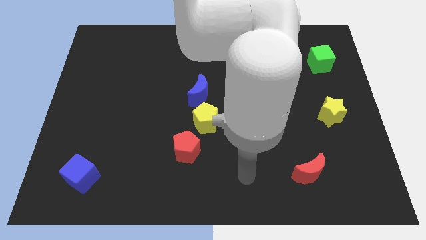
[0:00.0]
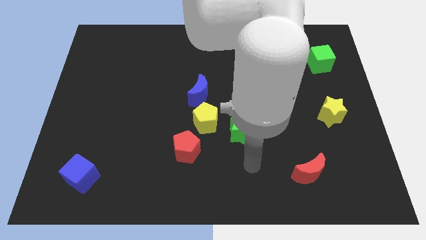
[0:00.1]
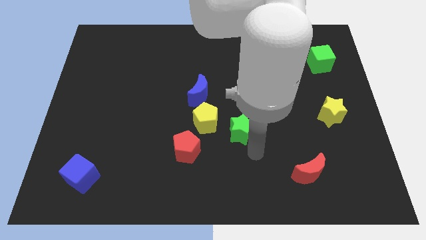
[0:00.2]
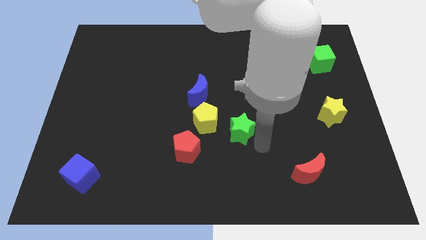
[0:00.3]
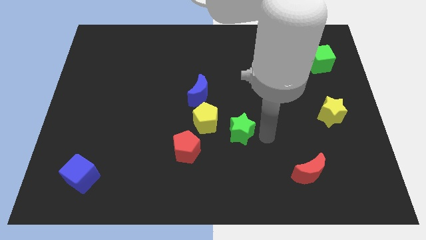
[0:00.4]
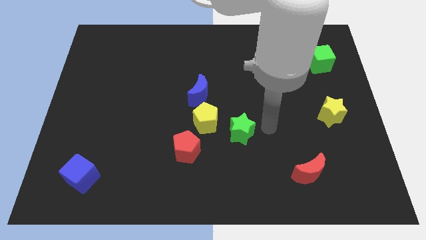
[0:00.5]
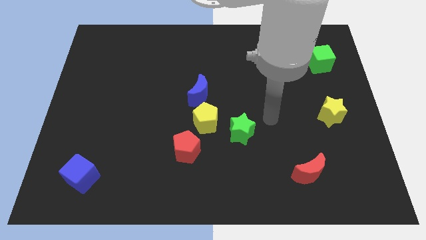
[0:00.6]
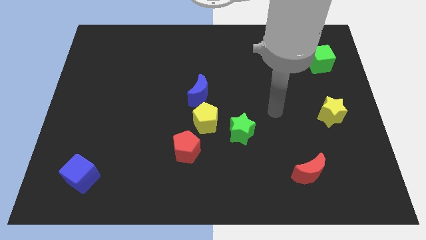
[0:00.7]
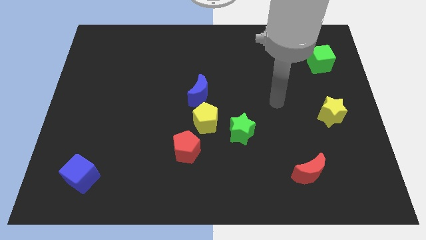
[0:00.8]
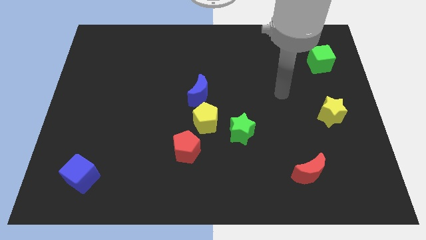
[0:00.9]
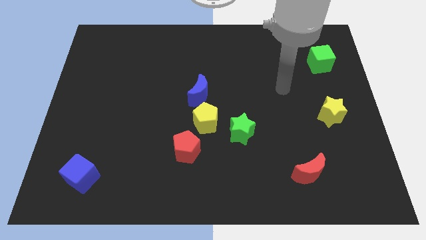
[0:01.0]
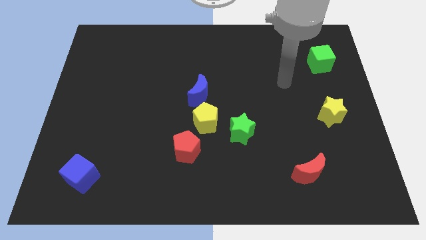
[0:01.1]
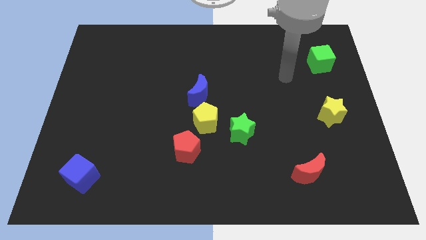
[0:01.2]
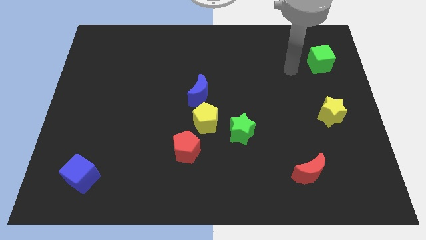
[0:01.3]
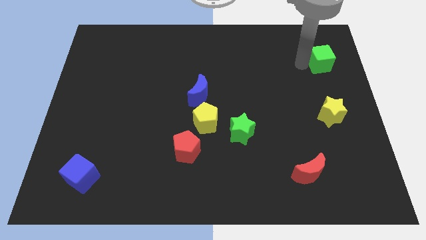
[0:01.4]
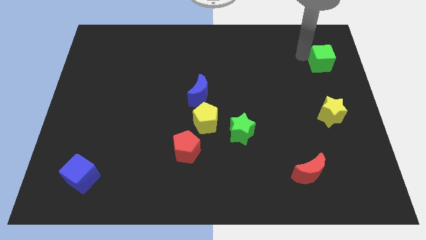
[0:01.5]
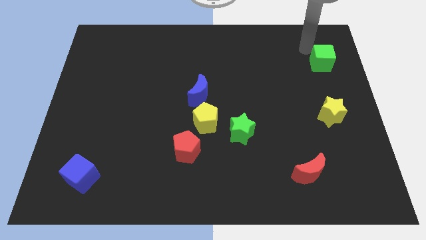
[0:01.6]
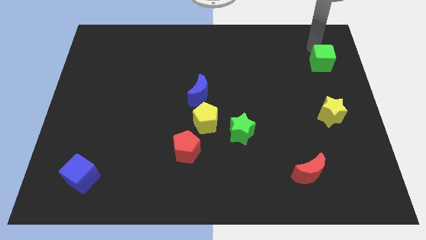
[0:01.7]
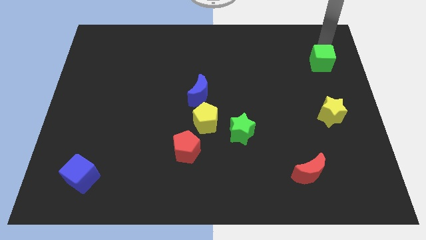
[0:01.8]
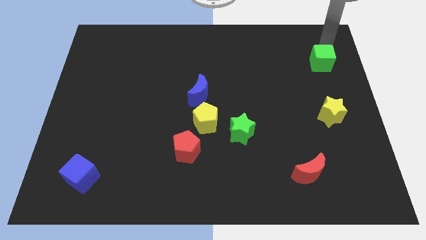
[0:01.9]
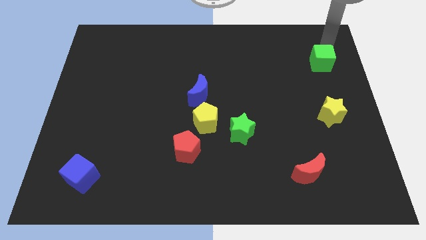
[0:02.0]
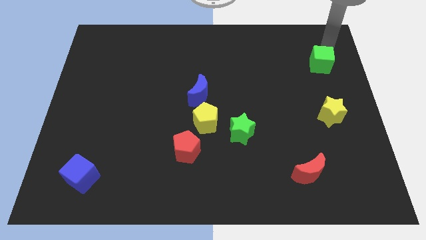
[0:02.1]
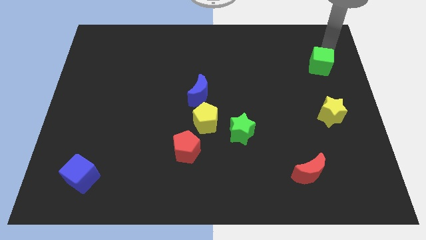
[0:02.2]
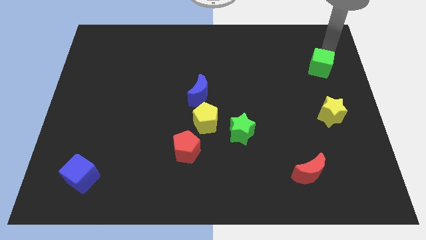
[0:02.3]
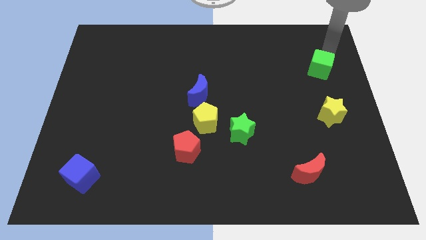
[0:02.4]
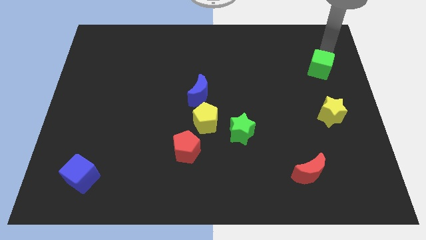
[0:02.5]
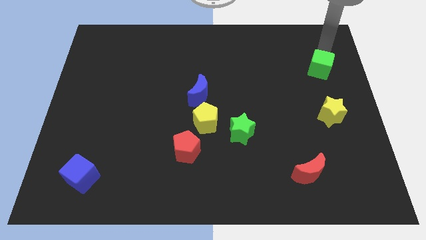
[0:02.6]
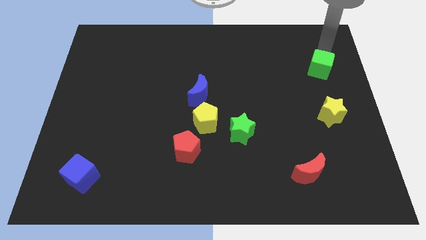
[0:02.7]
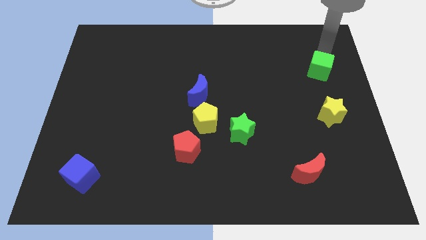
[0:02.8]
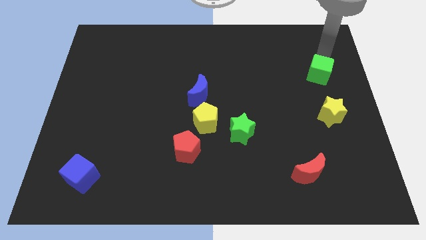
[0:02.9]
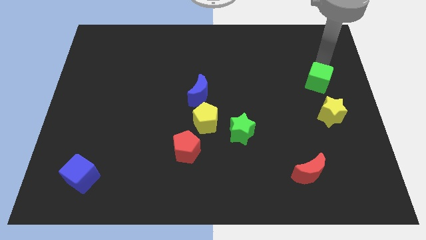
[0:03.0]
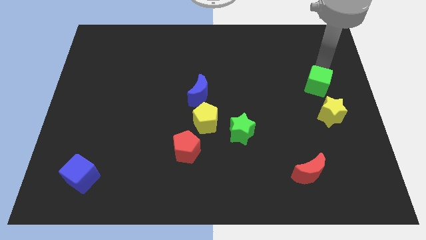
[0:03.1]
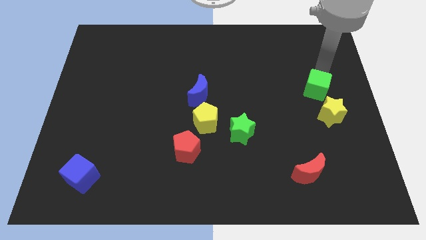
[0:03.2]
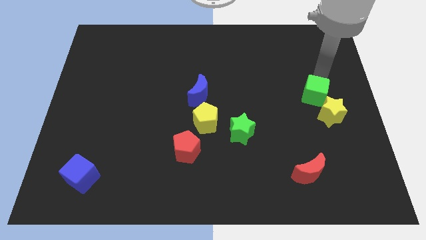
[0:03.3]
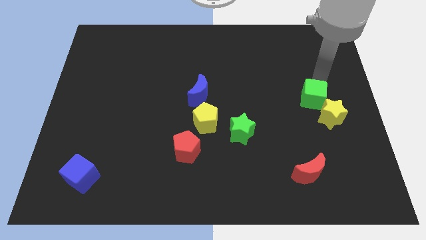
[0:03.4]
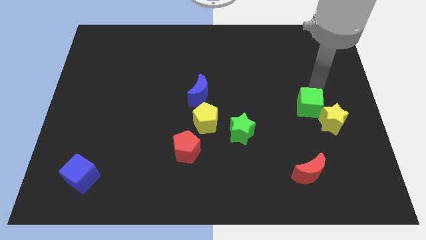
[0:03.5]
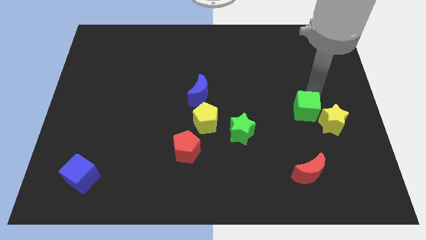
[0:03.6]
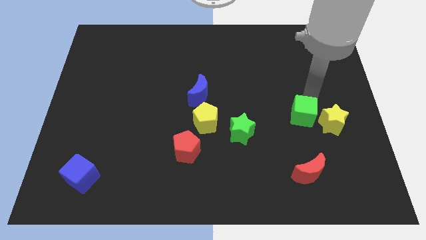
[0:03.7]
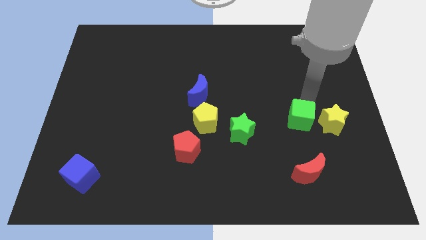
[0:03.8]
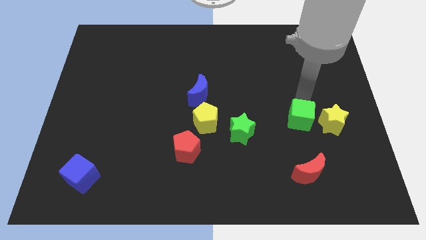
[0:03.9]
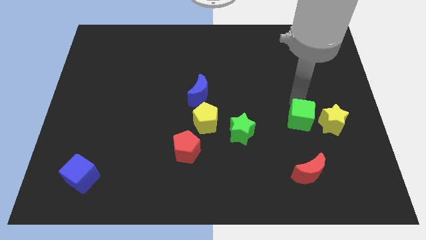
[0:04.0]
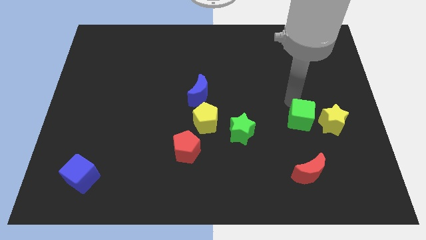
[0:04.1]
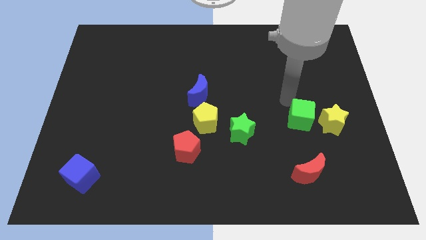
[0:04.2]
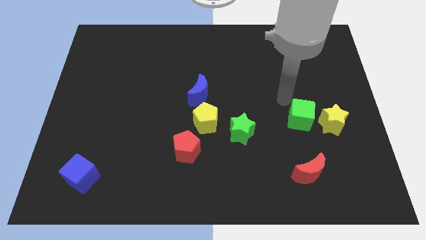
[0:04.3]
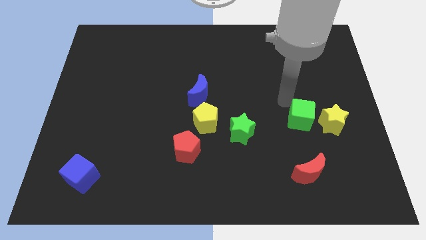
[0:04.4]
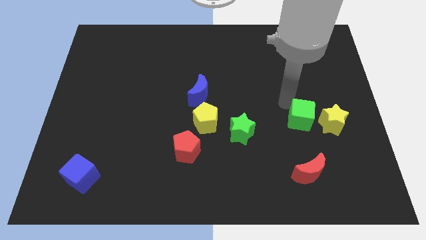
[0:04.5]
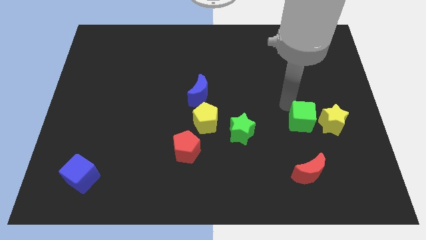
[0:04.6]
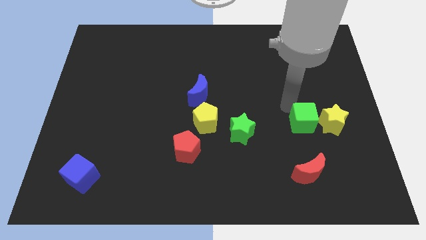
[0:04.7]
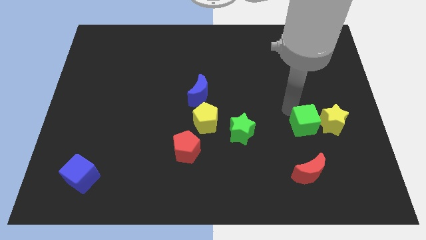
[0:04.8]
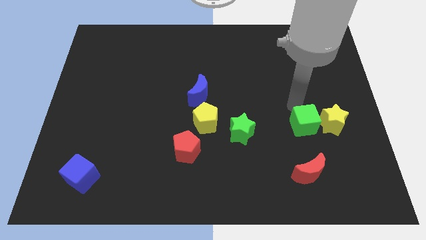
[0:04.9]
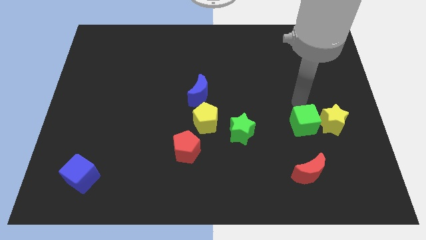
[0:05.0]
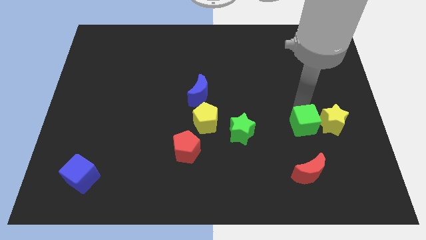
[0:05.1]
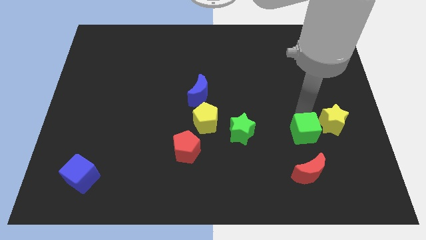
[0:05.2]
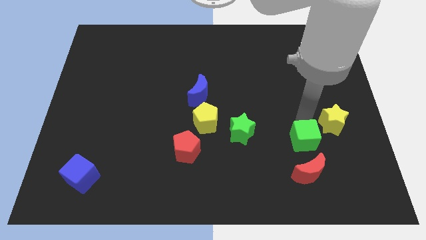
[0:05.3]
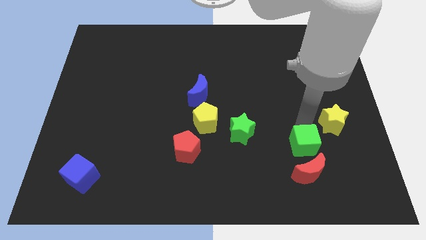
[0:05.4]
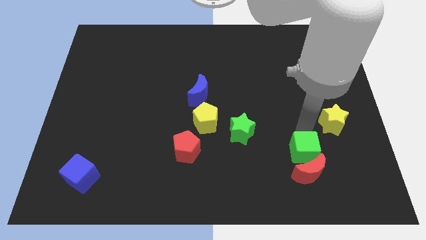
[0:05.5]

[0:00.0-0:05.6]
move the green cube to the red moon

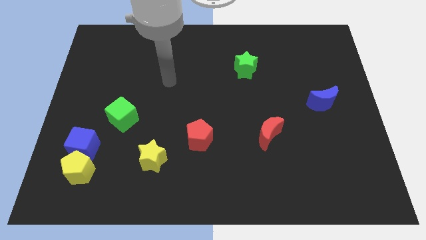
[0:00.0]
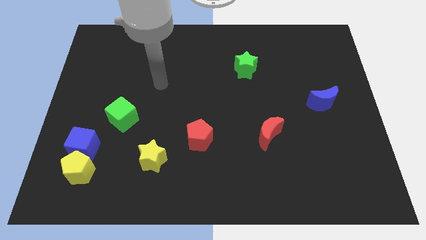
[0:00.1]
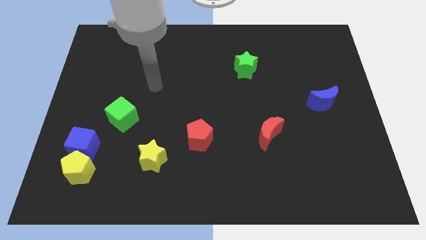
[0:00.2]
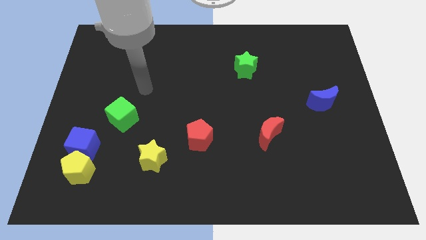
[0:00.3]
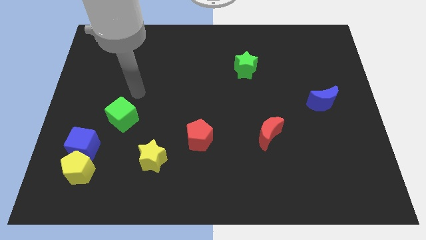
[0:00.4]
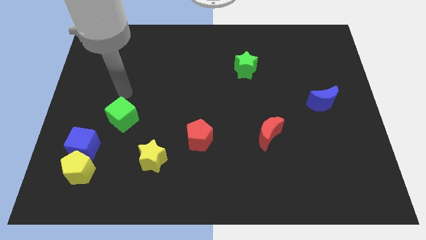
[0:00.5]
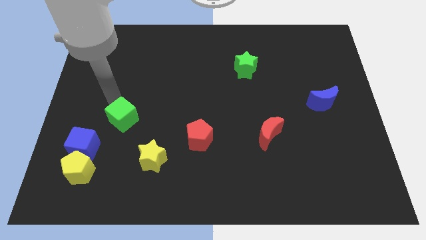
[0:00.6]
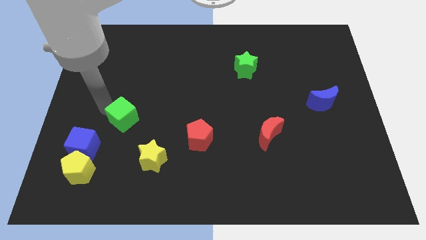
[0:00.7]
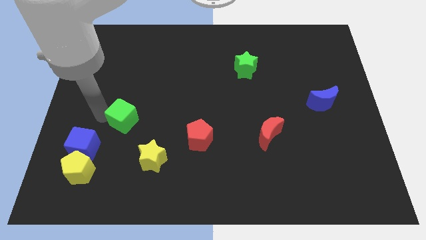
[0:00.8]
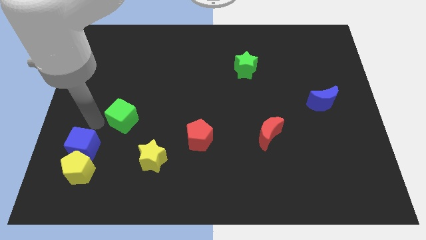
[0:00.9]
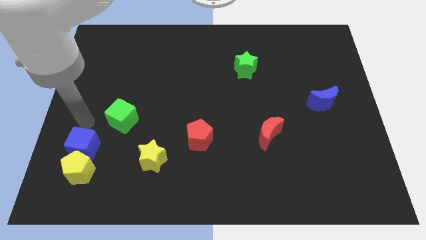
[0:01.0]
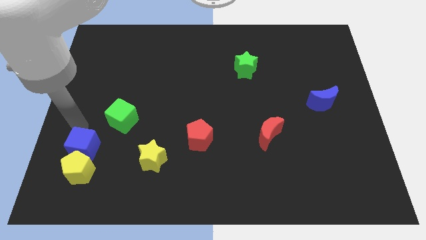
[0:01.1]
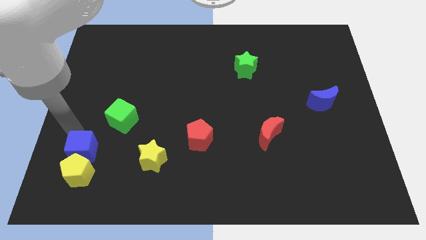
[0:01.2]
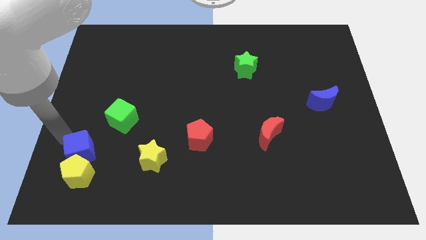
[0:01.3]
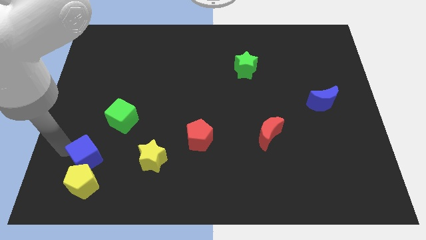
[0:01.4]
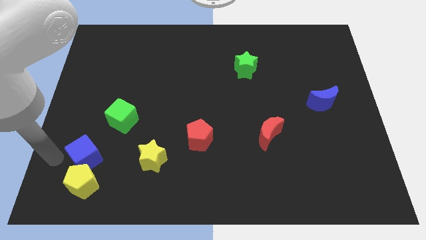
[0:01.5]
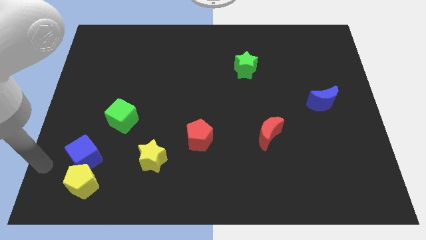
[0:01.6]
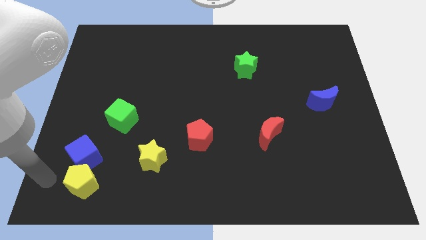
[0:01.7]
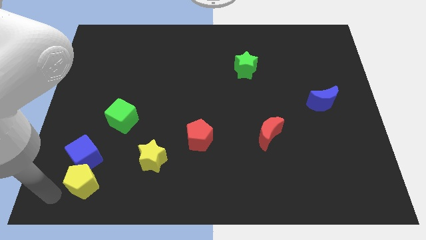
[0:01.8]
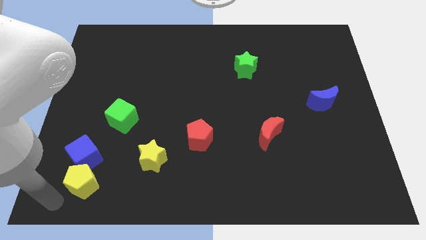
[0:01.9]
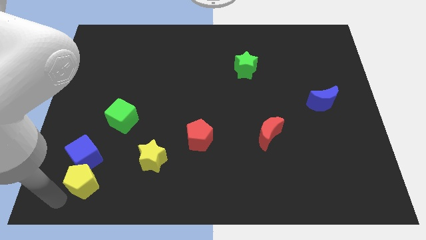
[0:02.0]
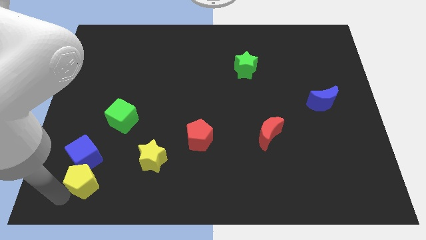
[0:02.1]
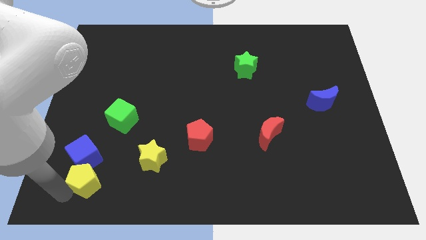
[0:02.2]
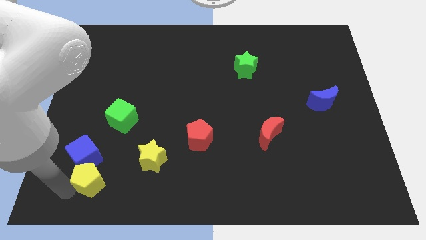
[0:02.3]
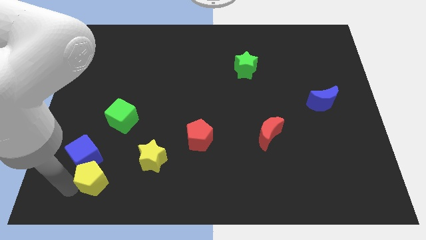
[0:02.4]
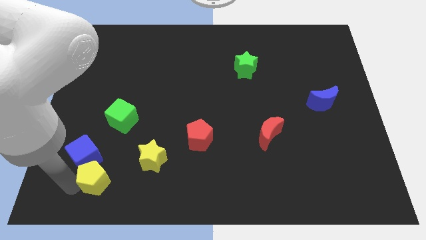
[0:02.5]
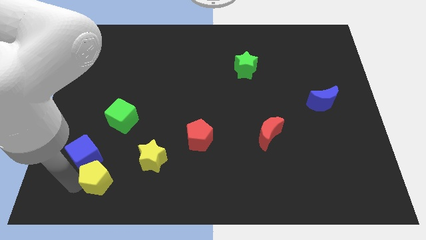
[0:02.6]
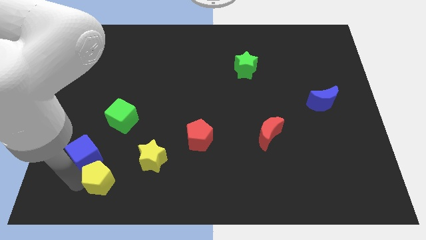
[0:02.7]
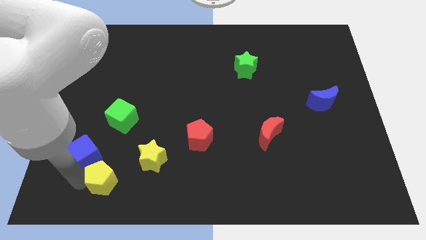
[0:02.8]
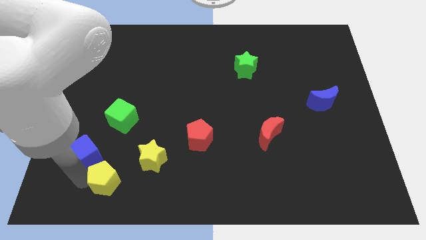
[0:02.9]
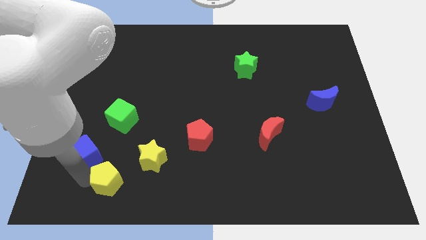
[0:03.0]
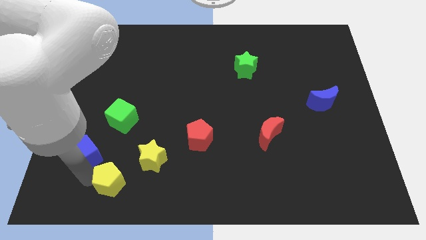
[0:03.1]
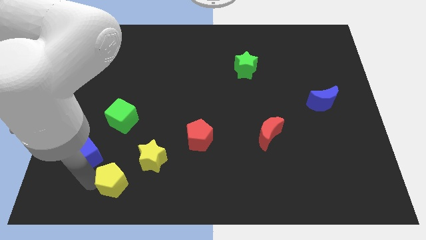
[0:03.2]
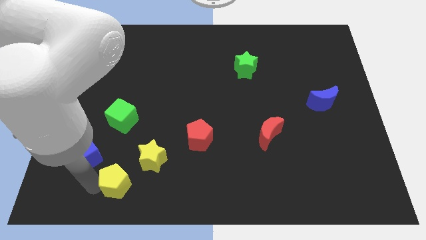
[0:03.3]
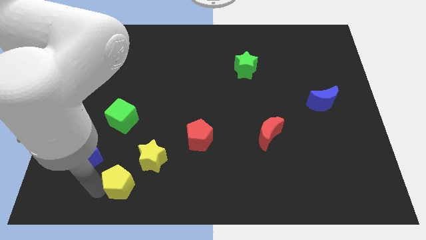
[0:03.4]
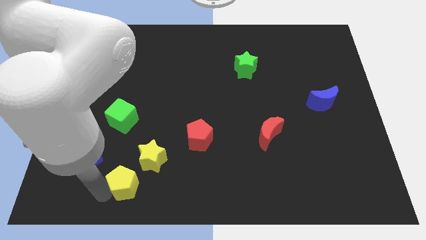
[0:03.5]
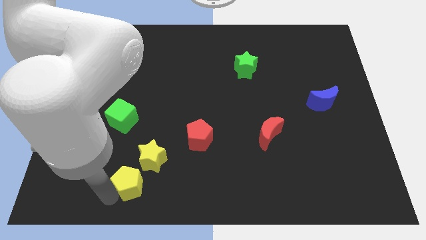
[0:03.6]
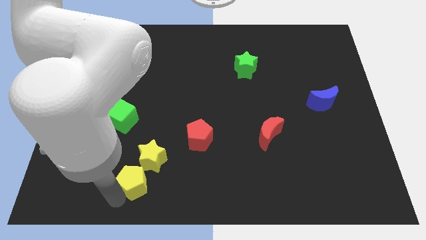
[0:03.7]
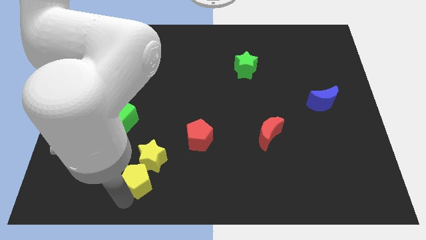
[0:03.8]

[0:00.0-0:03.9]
move the yellow pentagon to the yellow star
